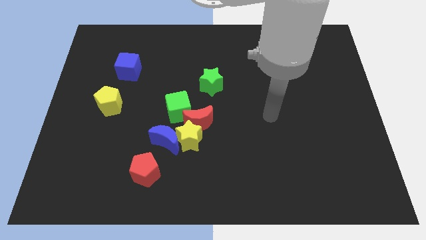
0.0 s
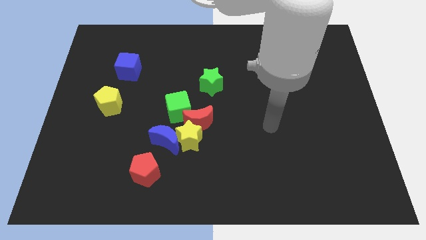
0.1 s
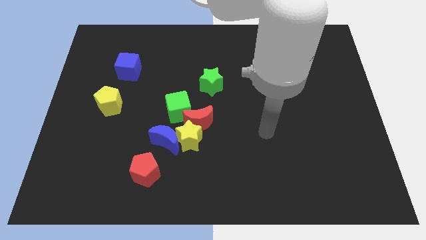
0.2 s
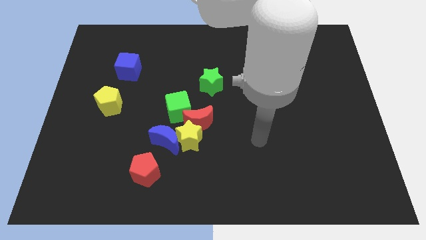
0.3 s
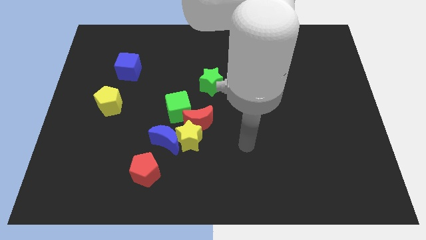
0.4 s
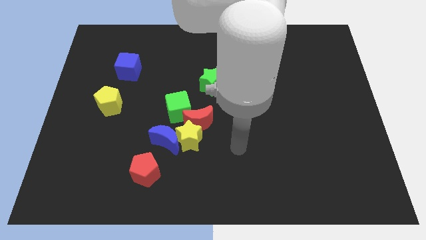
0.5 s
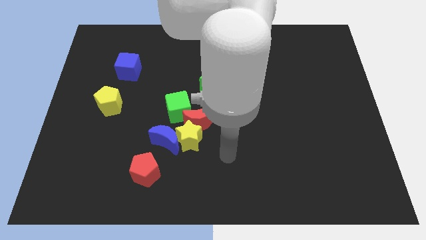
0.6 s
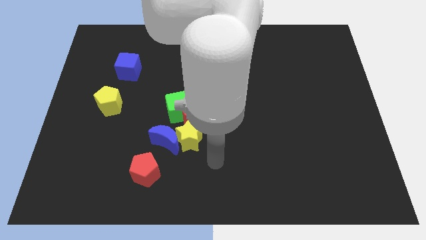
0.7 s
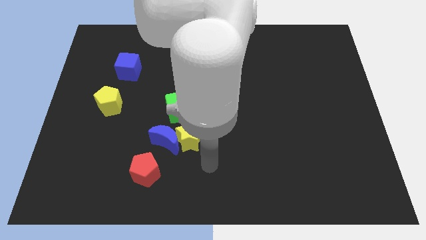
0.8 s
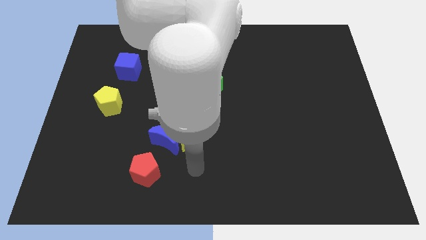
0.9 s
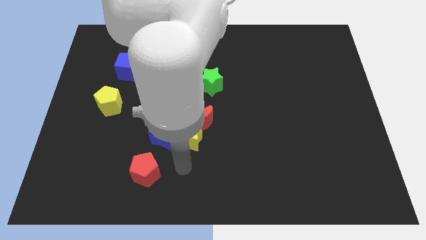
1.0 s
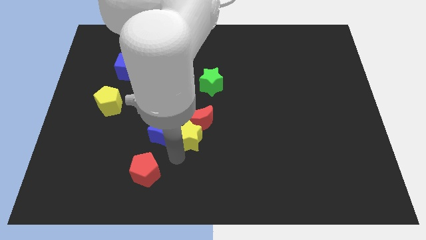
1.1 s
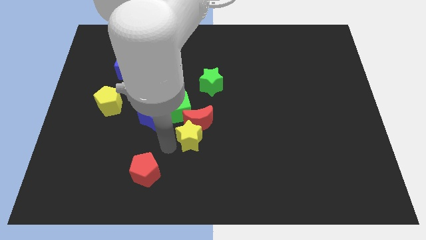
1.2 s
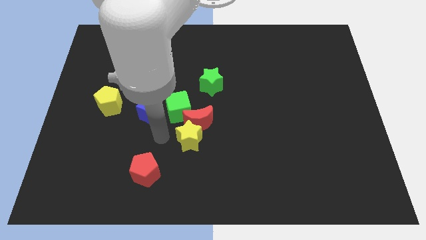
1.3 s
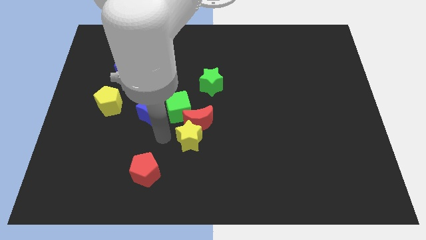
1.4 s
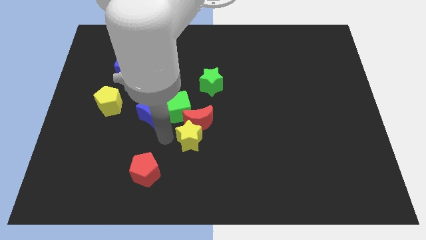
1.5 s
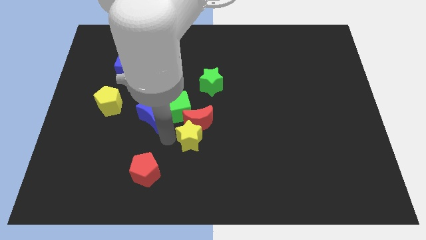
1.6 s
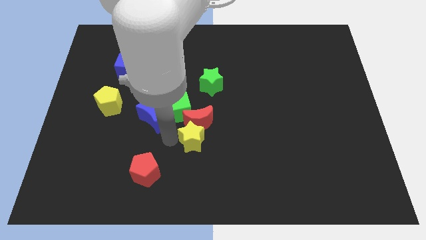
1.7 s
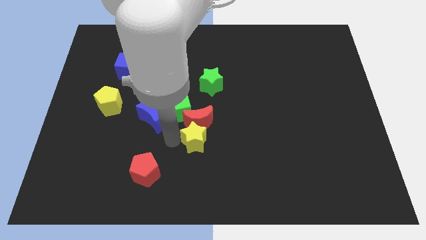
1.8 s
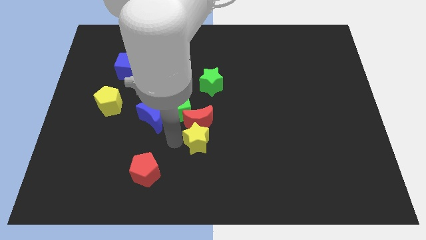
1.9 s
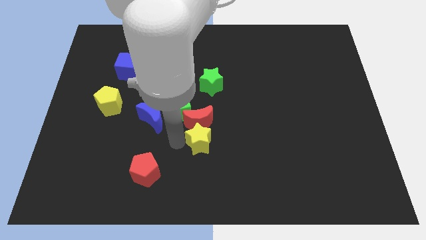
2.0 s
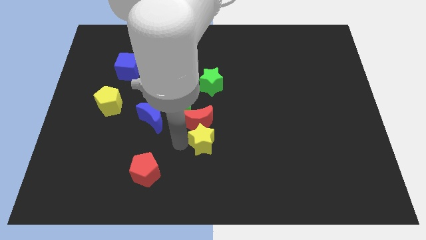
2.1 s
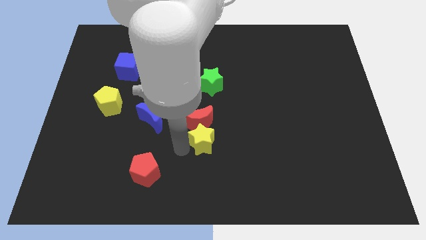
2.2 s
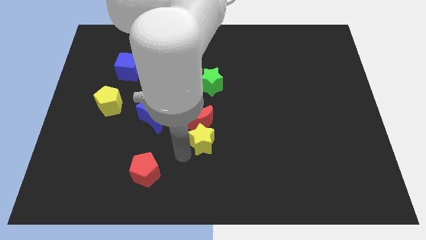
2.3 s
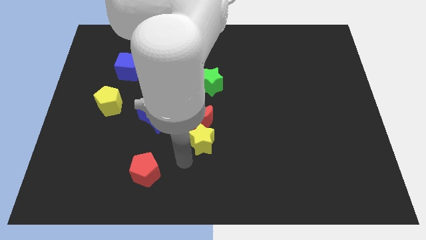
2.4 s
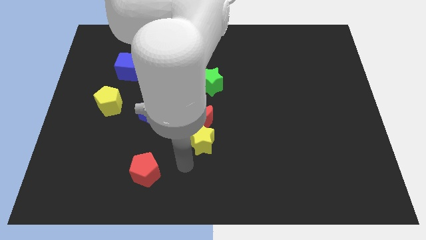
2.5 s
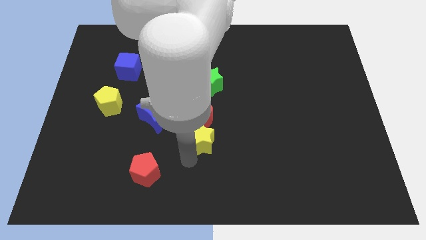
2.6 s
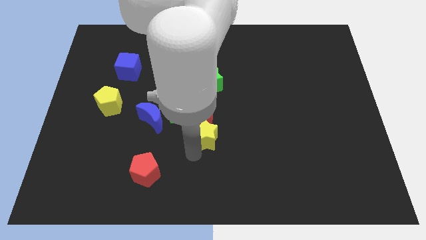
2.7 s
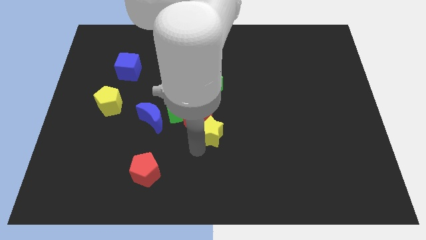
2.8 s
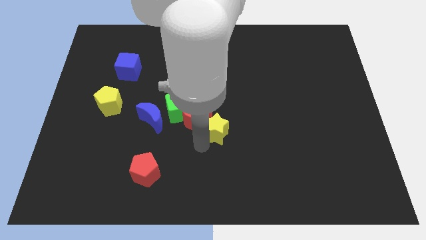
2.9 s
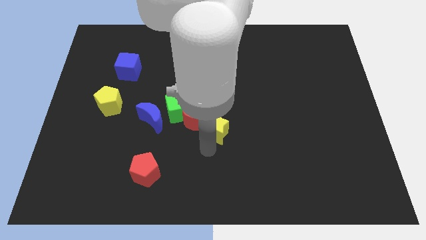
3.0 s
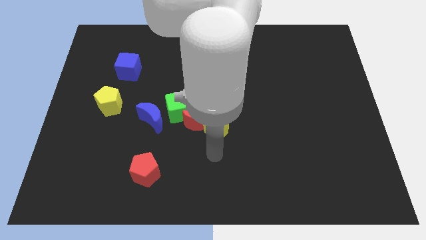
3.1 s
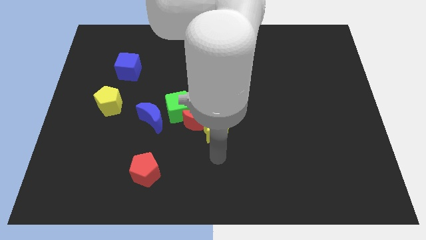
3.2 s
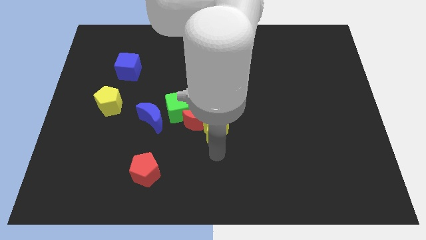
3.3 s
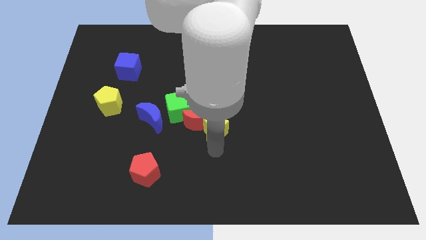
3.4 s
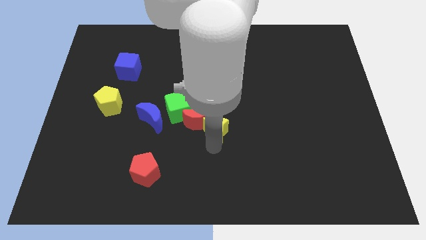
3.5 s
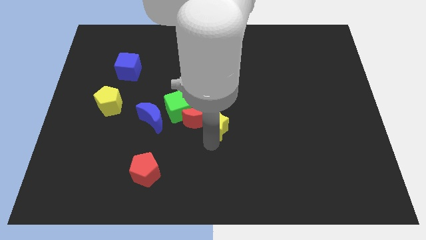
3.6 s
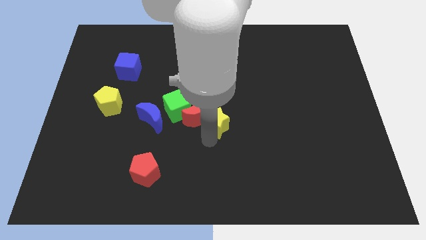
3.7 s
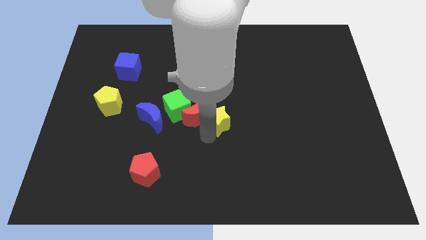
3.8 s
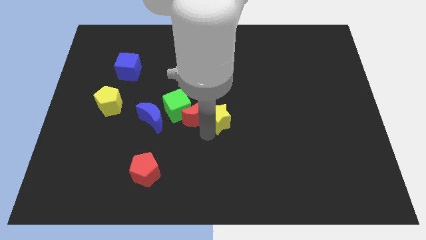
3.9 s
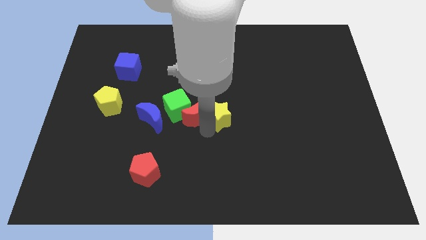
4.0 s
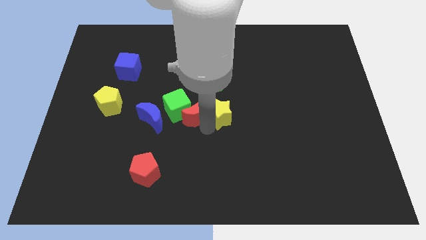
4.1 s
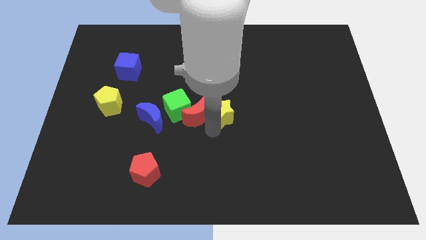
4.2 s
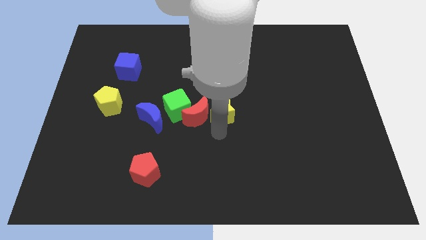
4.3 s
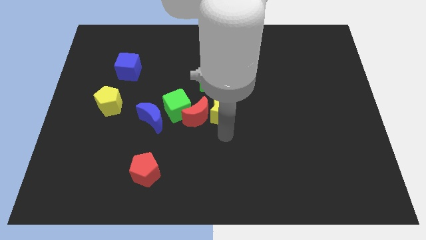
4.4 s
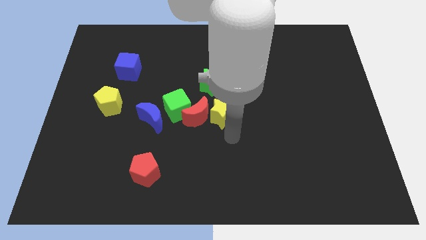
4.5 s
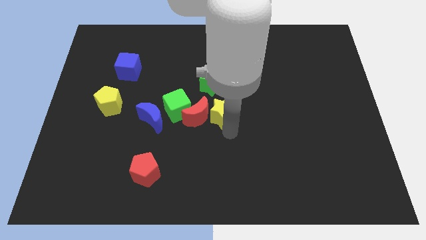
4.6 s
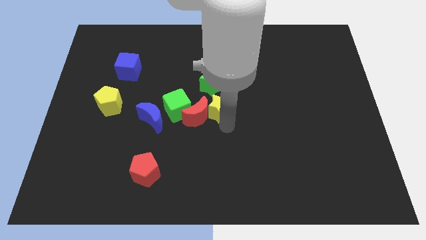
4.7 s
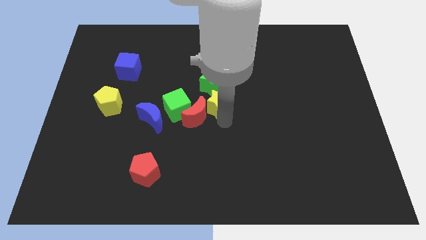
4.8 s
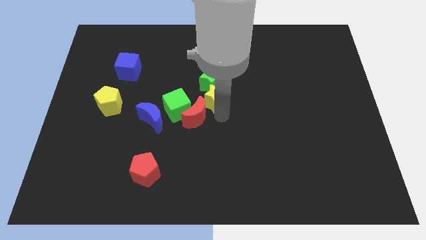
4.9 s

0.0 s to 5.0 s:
slide the yellow star next to the green star

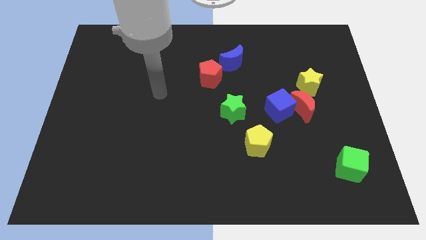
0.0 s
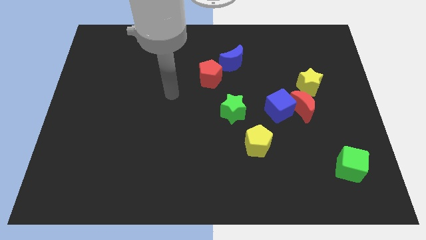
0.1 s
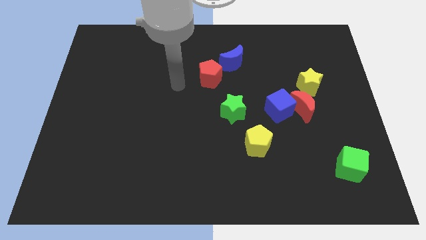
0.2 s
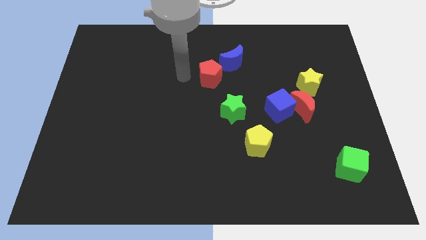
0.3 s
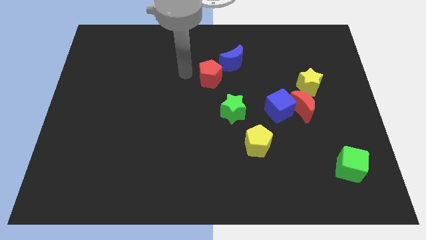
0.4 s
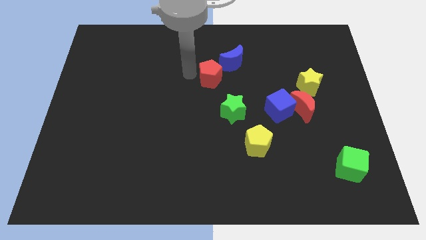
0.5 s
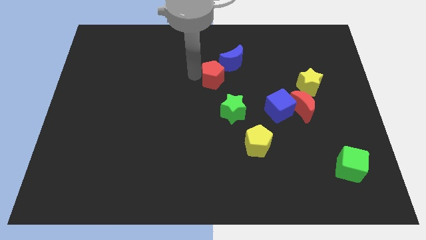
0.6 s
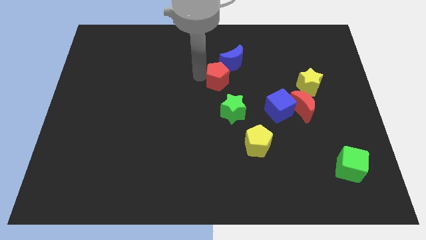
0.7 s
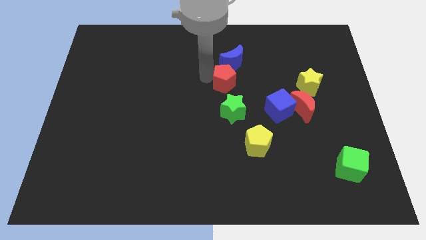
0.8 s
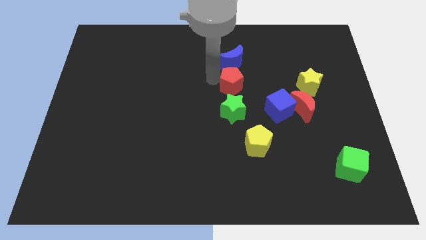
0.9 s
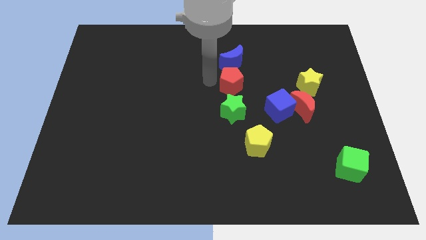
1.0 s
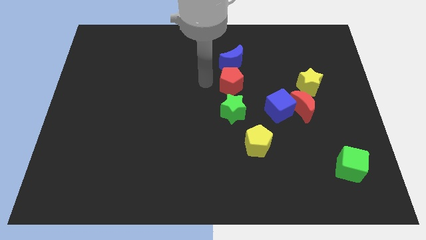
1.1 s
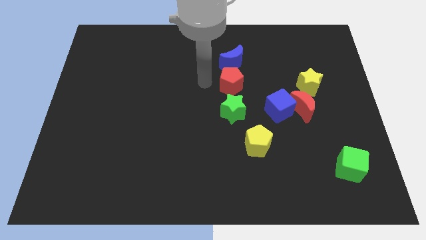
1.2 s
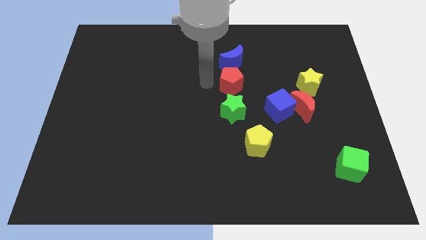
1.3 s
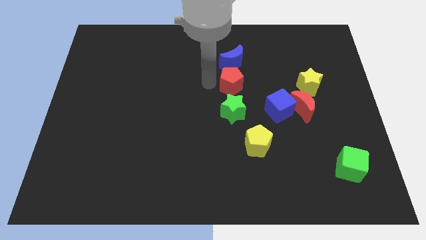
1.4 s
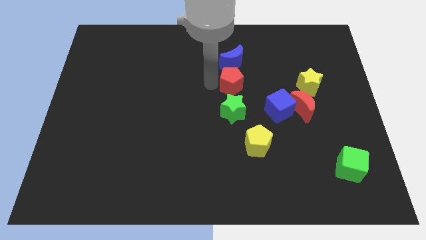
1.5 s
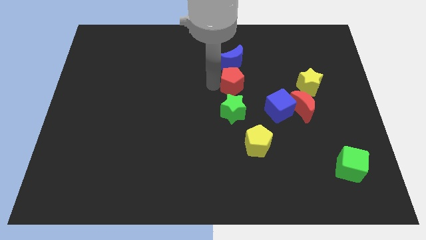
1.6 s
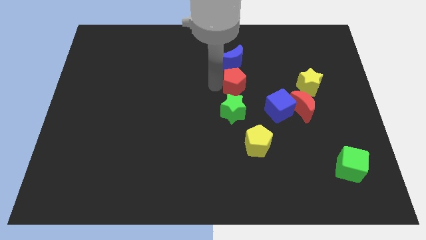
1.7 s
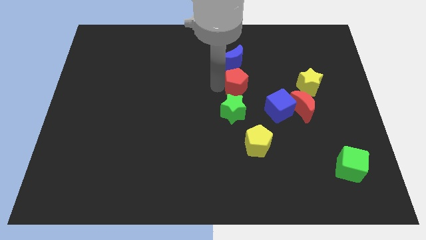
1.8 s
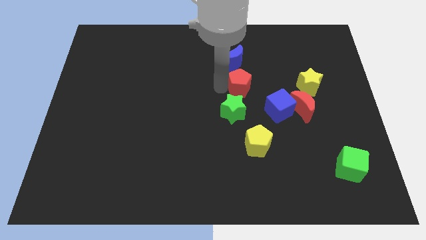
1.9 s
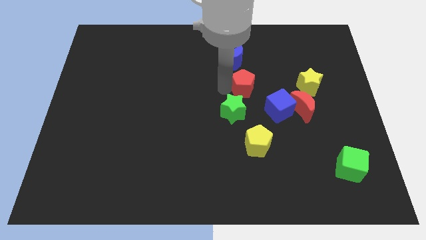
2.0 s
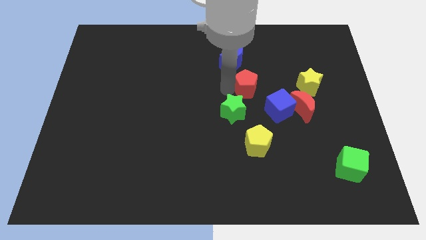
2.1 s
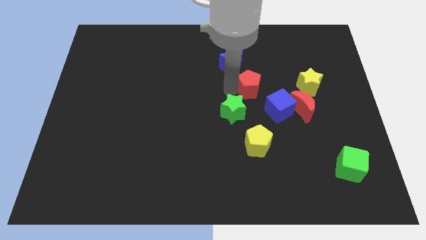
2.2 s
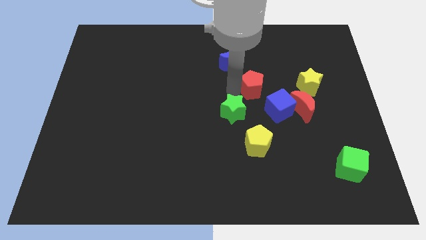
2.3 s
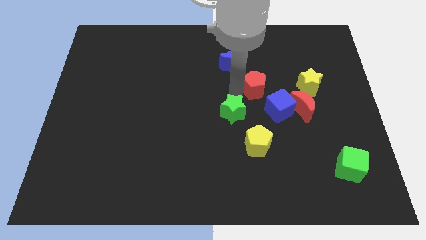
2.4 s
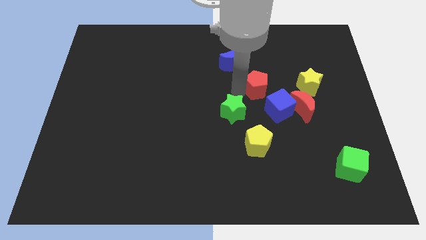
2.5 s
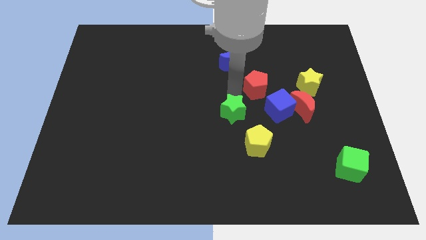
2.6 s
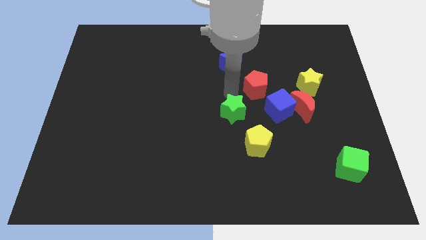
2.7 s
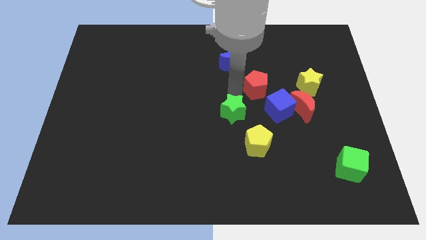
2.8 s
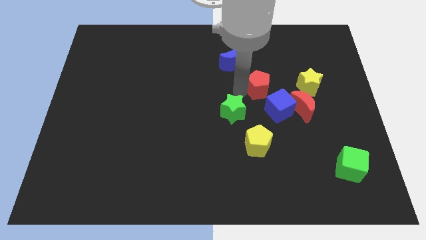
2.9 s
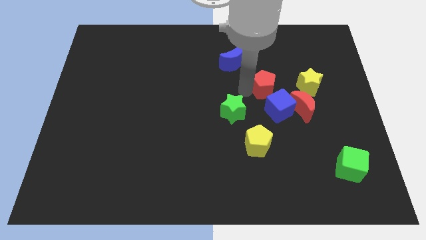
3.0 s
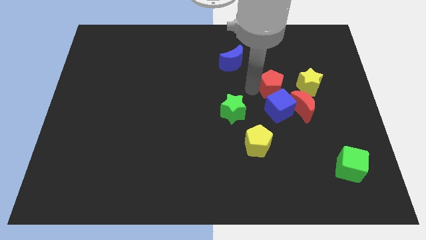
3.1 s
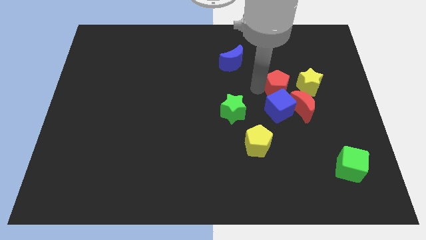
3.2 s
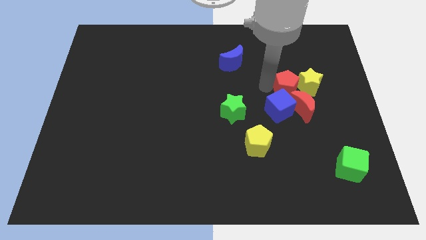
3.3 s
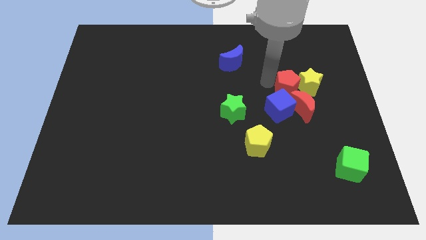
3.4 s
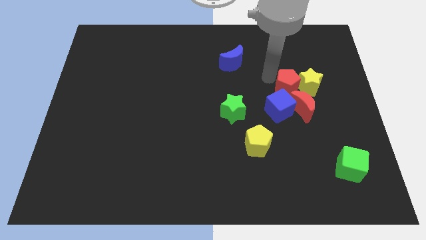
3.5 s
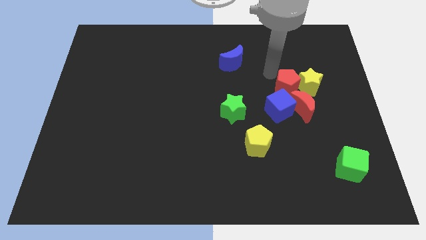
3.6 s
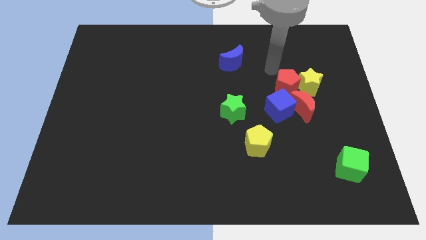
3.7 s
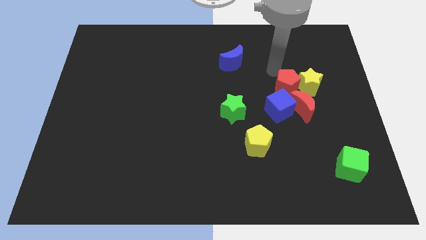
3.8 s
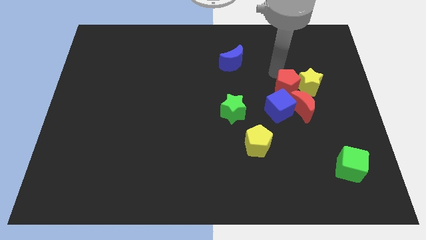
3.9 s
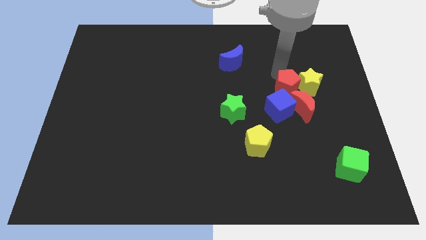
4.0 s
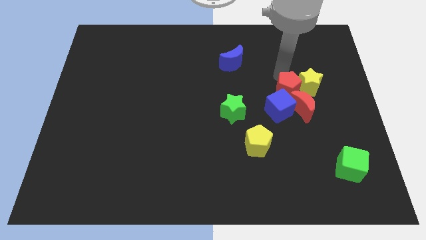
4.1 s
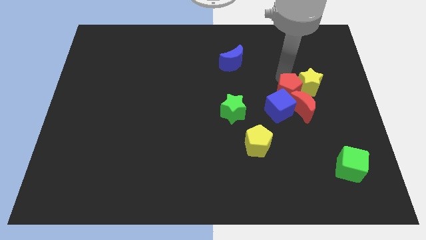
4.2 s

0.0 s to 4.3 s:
slide the red pentagon close to the red moon
